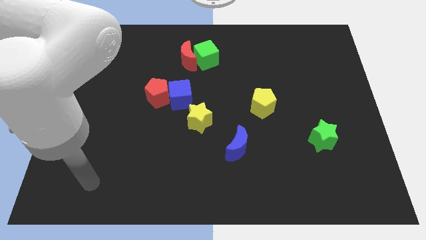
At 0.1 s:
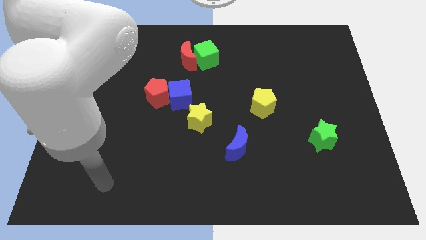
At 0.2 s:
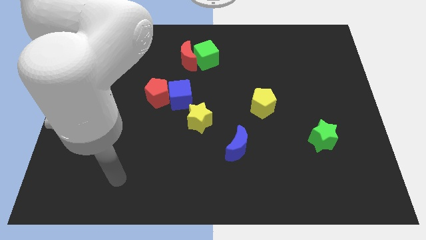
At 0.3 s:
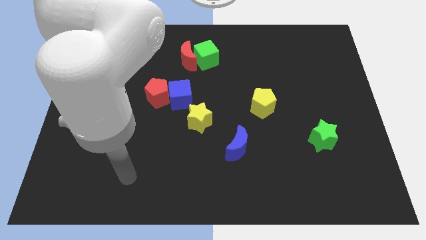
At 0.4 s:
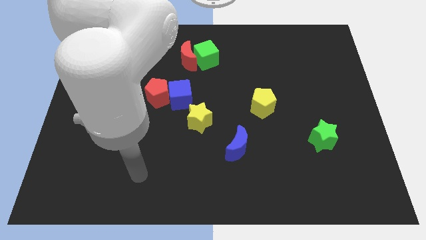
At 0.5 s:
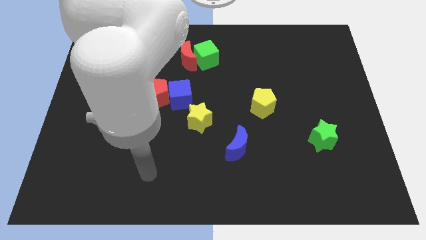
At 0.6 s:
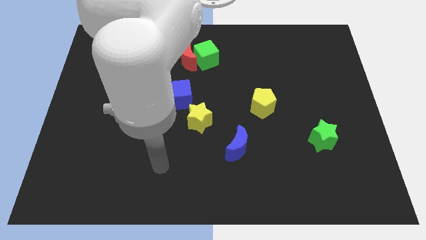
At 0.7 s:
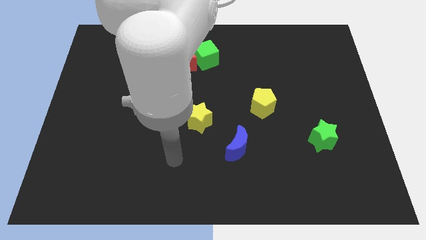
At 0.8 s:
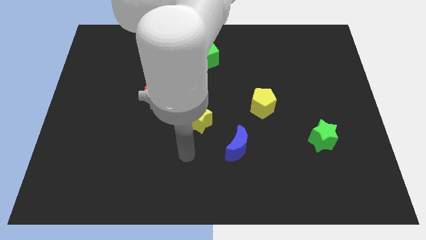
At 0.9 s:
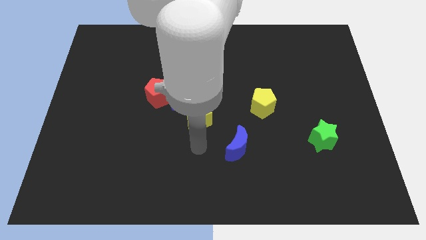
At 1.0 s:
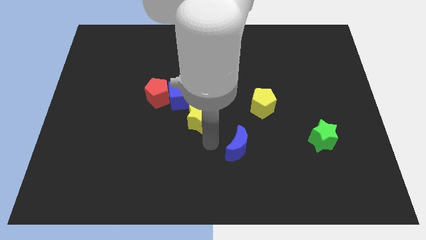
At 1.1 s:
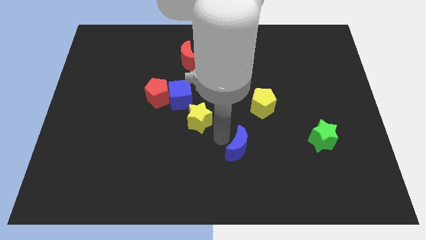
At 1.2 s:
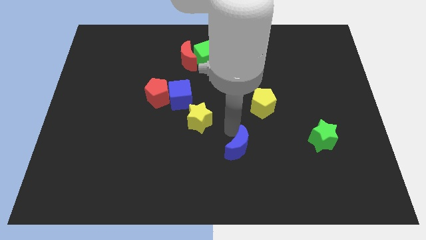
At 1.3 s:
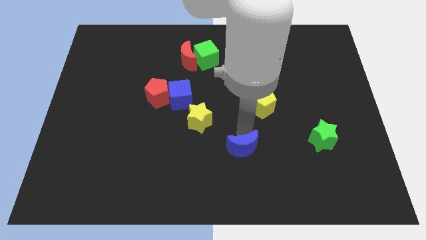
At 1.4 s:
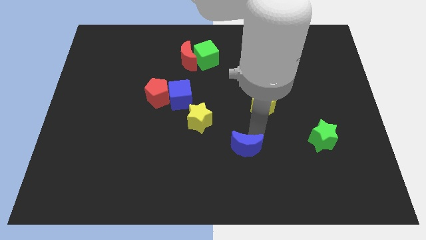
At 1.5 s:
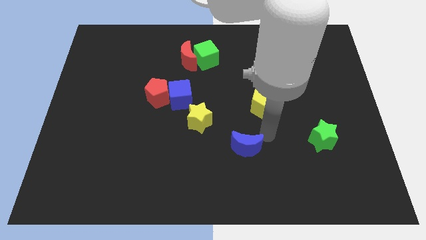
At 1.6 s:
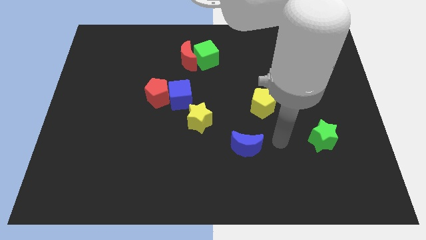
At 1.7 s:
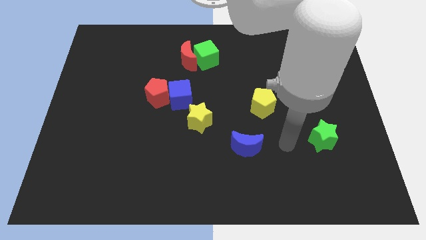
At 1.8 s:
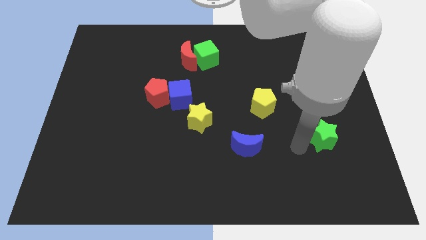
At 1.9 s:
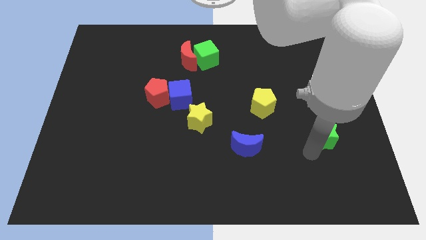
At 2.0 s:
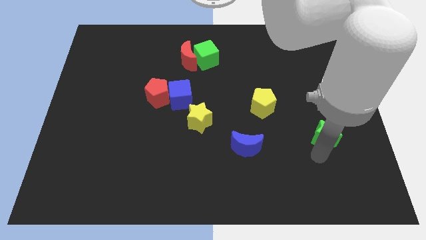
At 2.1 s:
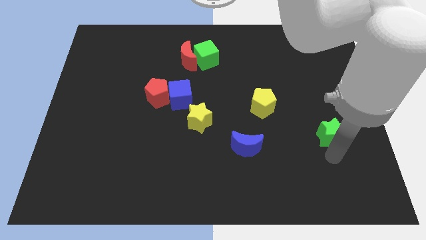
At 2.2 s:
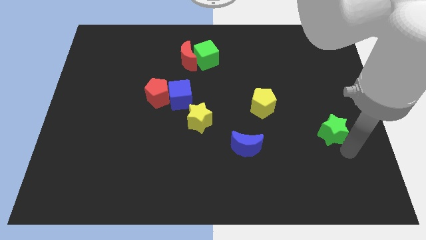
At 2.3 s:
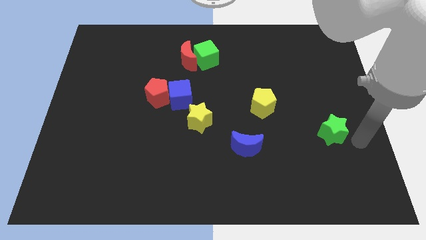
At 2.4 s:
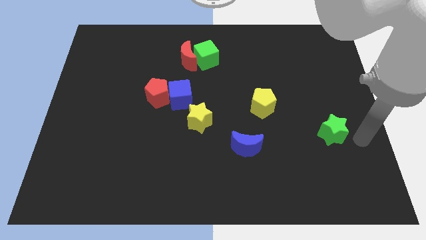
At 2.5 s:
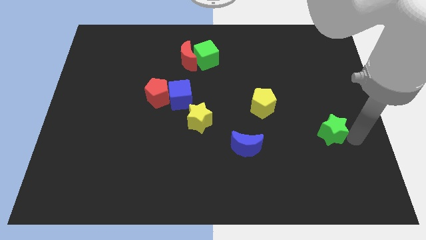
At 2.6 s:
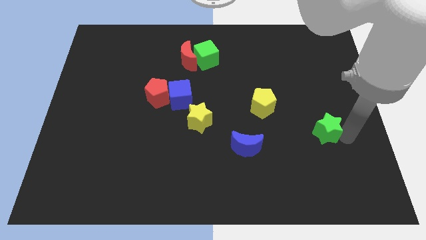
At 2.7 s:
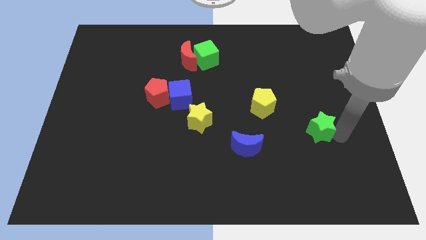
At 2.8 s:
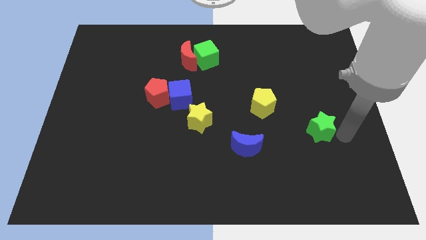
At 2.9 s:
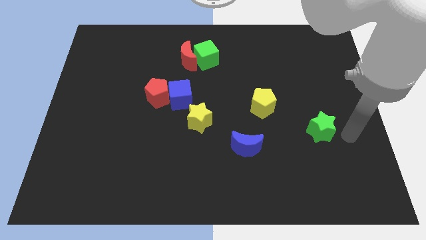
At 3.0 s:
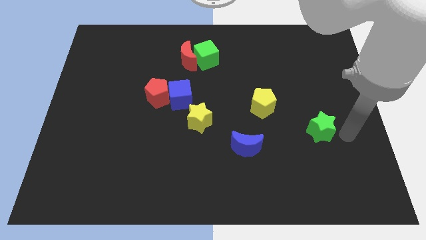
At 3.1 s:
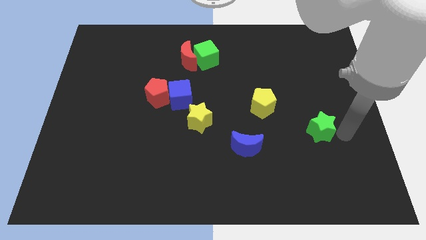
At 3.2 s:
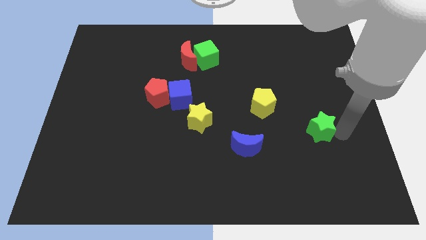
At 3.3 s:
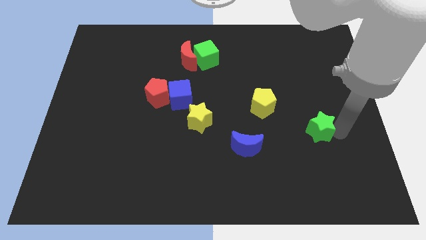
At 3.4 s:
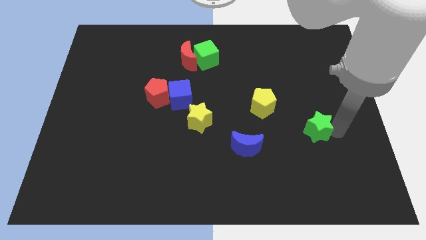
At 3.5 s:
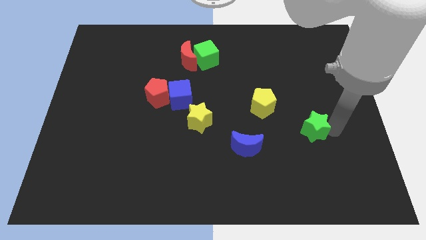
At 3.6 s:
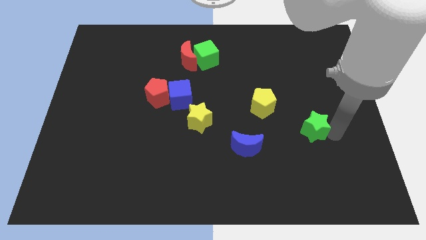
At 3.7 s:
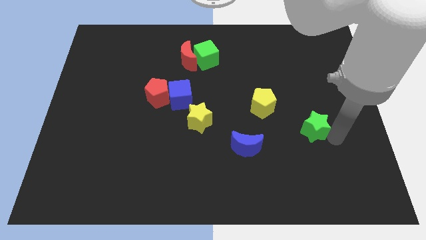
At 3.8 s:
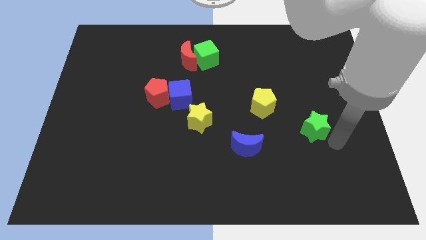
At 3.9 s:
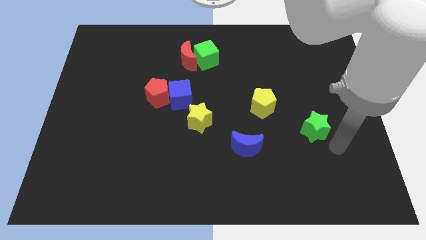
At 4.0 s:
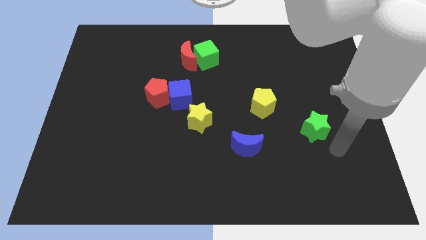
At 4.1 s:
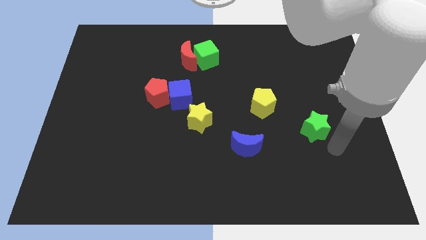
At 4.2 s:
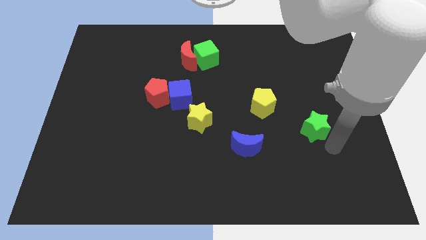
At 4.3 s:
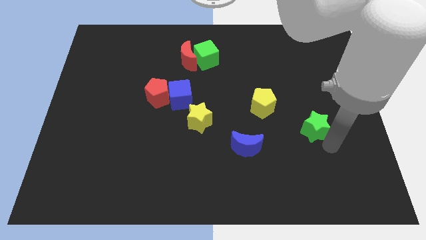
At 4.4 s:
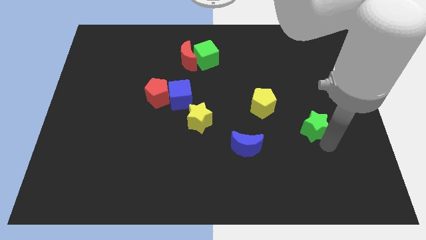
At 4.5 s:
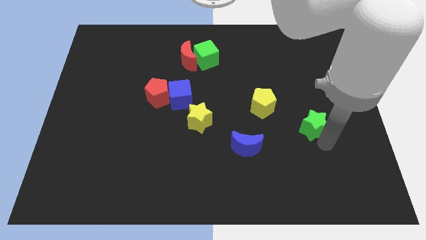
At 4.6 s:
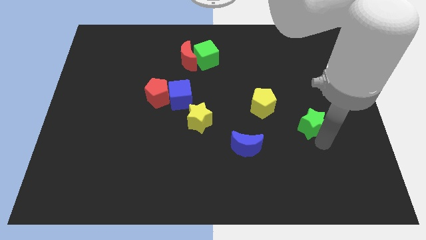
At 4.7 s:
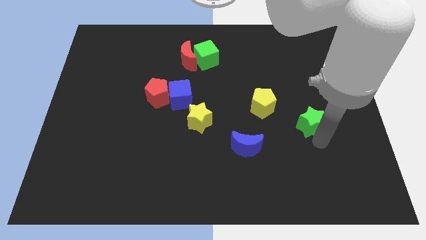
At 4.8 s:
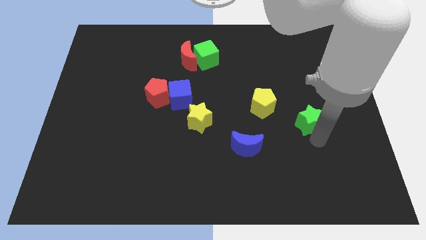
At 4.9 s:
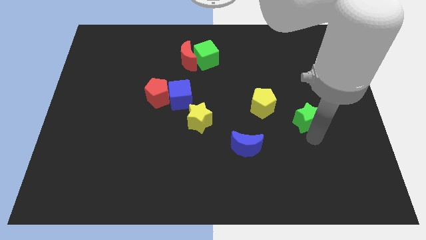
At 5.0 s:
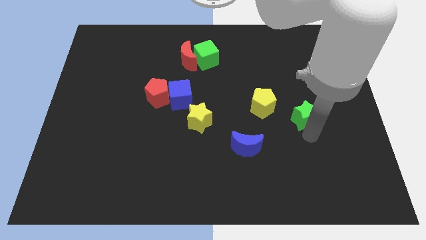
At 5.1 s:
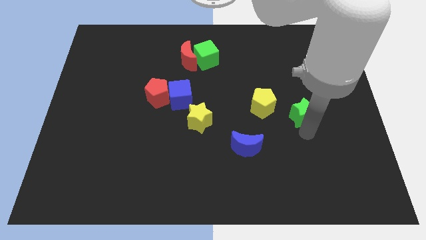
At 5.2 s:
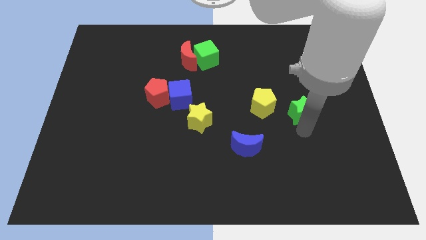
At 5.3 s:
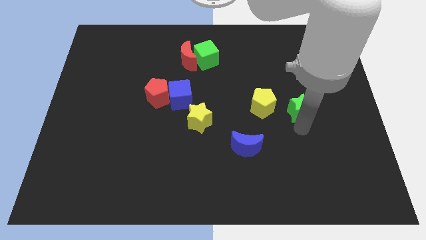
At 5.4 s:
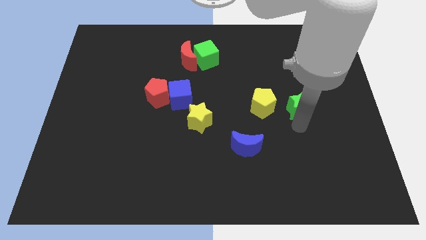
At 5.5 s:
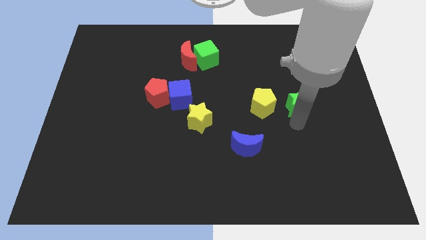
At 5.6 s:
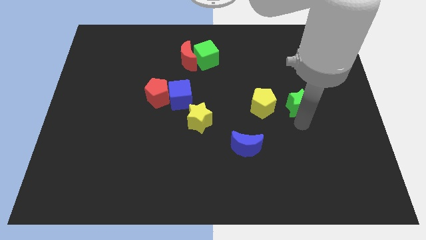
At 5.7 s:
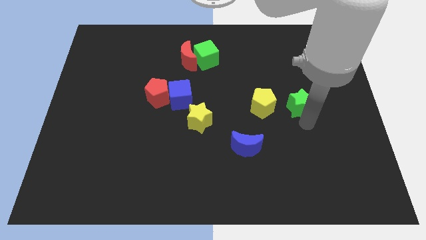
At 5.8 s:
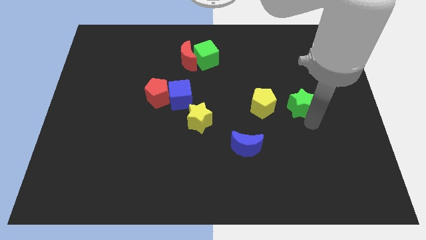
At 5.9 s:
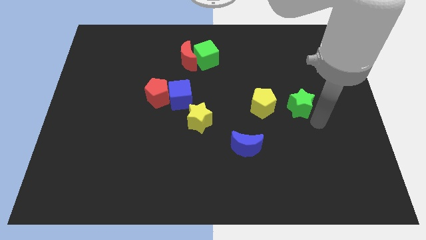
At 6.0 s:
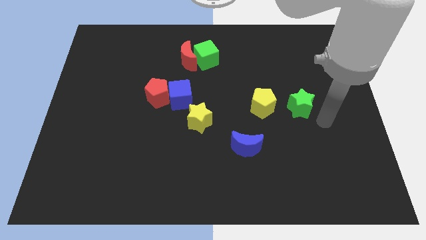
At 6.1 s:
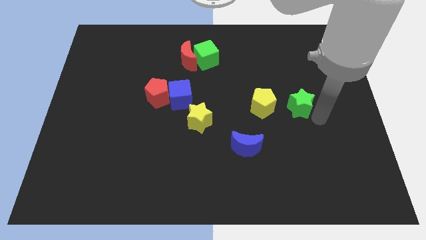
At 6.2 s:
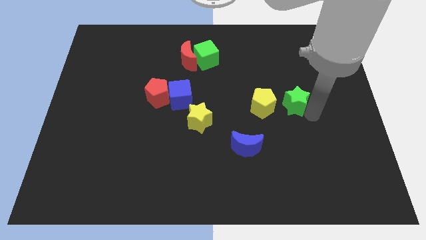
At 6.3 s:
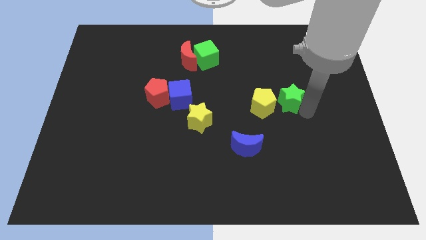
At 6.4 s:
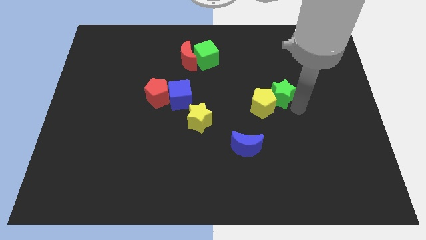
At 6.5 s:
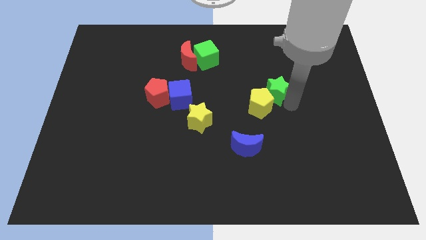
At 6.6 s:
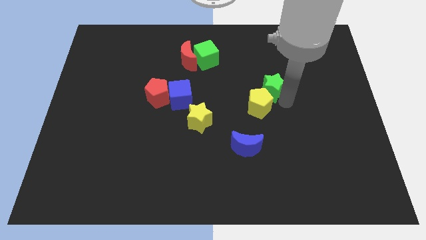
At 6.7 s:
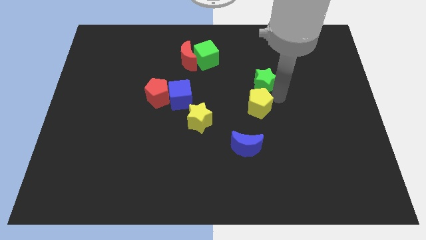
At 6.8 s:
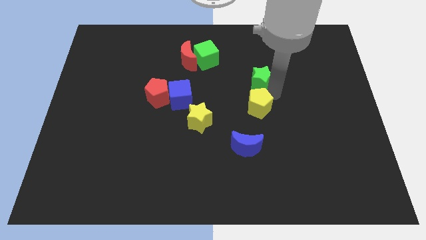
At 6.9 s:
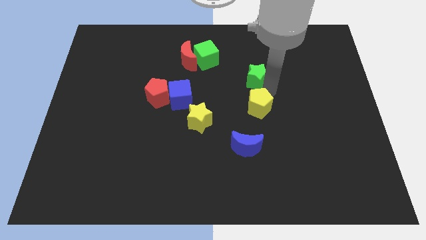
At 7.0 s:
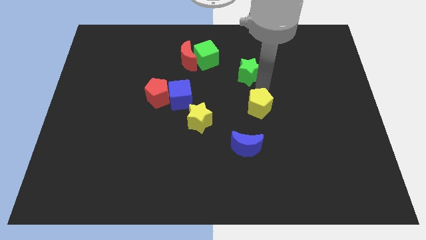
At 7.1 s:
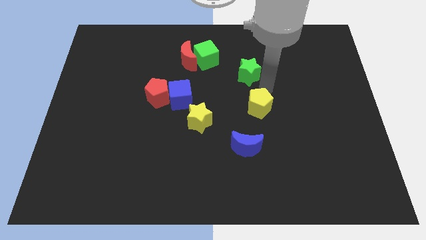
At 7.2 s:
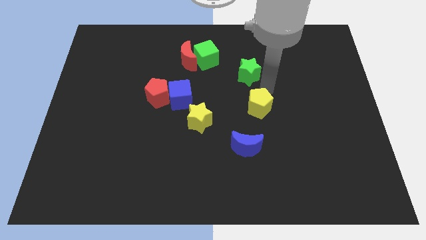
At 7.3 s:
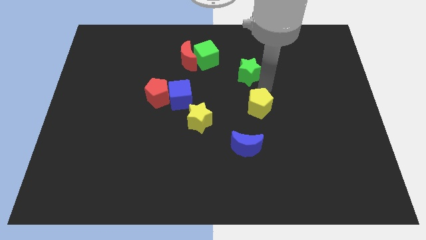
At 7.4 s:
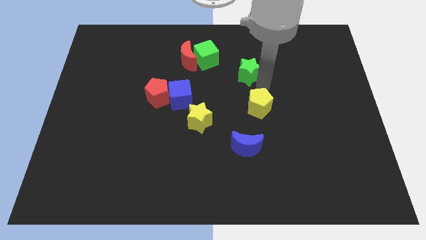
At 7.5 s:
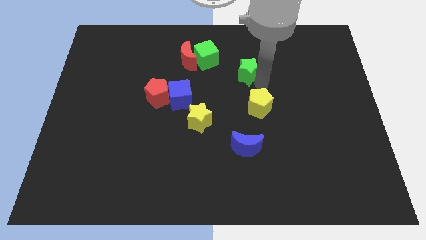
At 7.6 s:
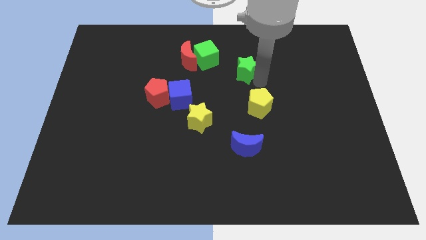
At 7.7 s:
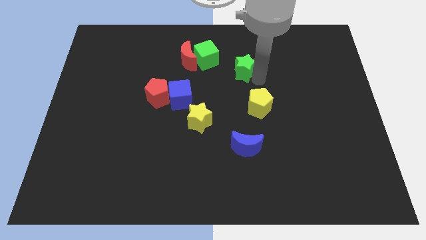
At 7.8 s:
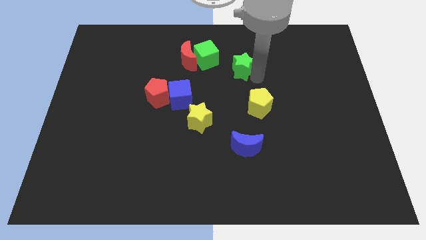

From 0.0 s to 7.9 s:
push the green star just right of the red moon
